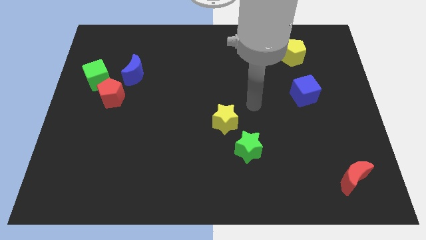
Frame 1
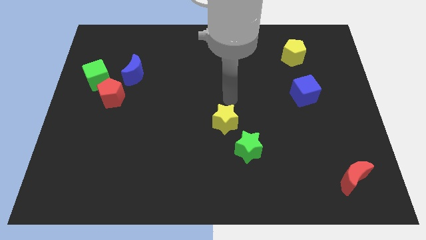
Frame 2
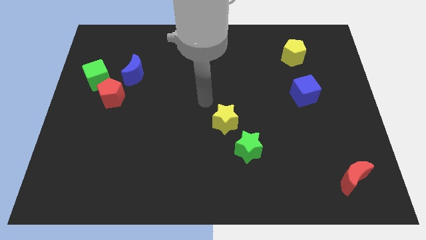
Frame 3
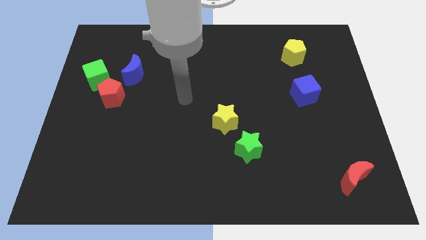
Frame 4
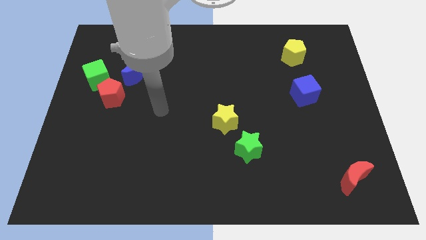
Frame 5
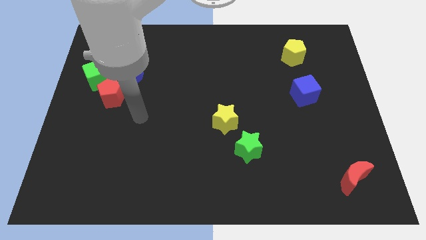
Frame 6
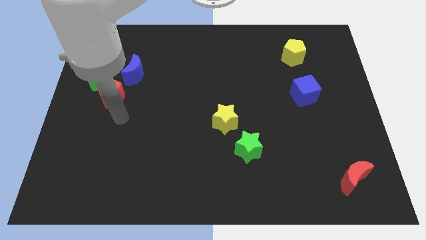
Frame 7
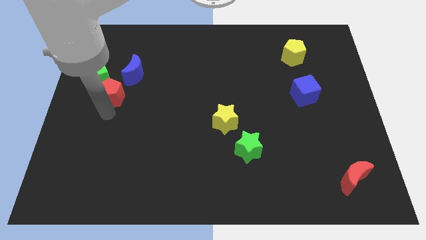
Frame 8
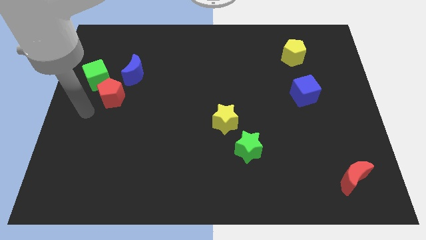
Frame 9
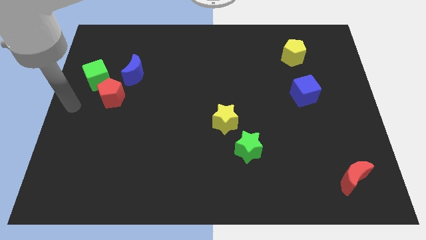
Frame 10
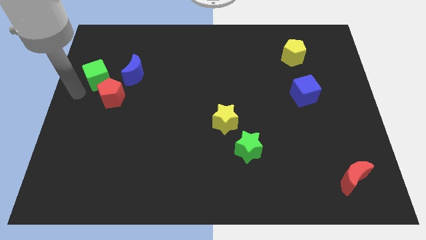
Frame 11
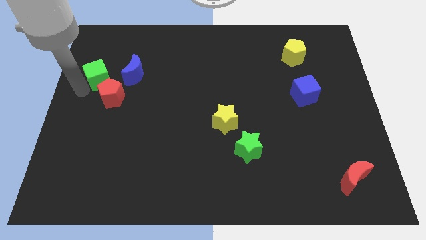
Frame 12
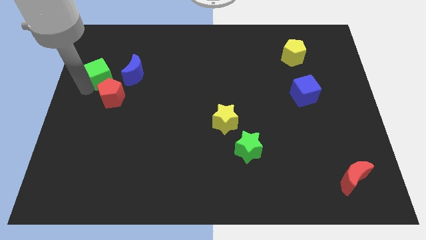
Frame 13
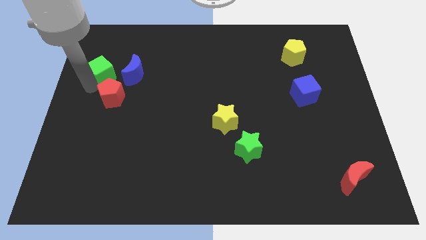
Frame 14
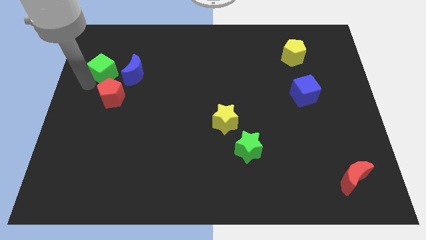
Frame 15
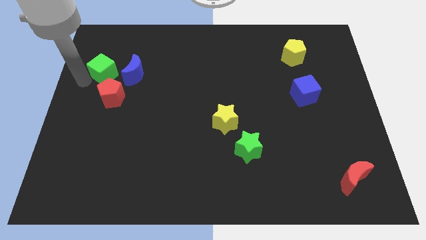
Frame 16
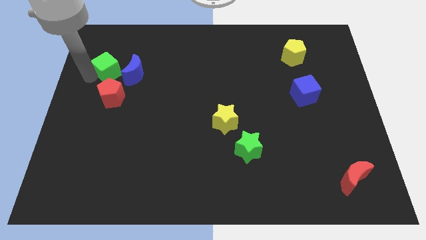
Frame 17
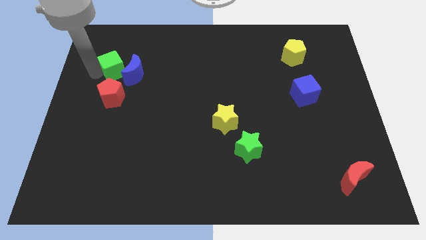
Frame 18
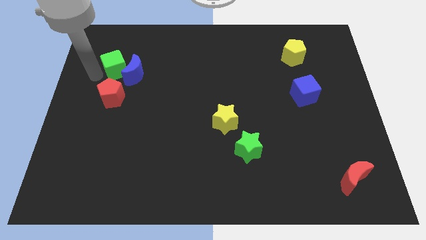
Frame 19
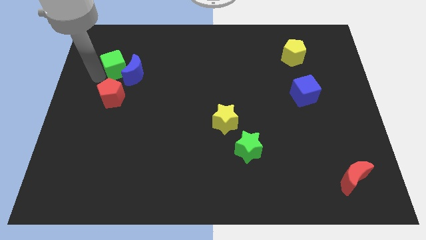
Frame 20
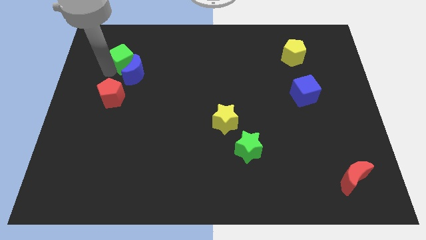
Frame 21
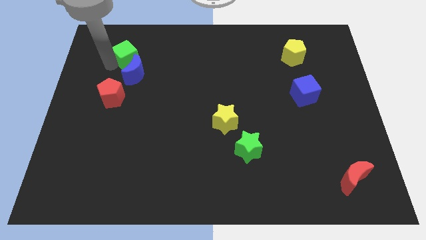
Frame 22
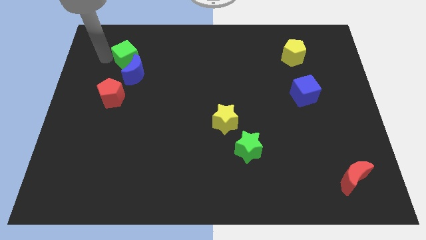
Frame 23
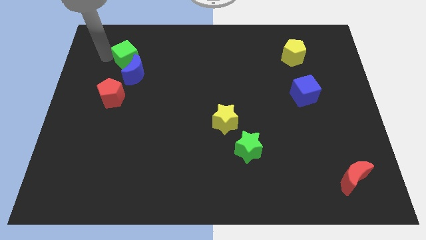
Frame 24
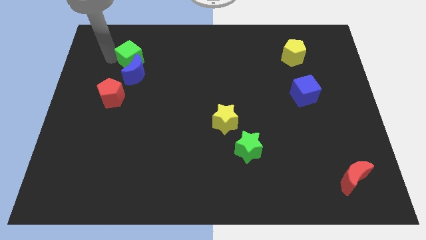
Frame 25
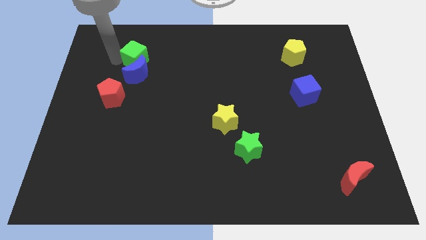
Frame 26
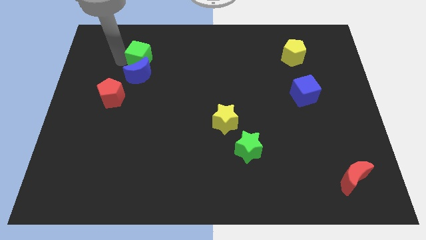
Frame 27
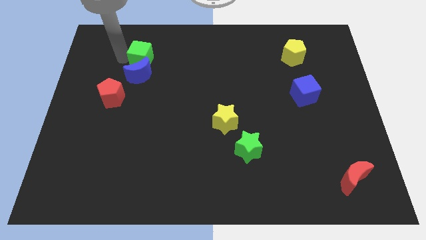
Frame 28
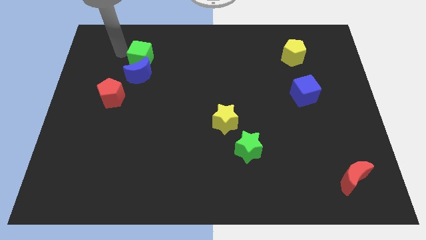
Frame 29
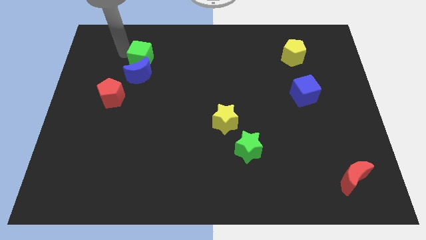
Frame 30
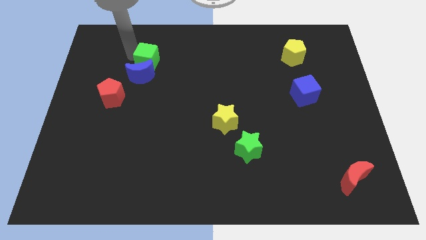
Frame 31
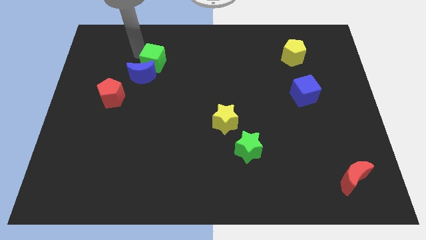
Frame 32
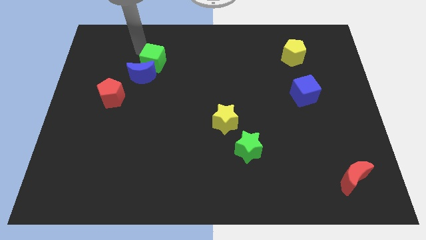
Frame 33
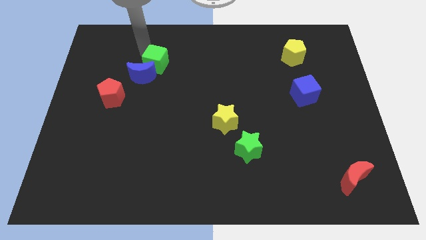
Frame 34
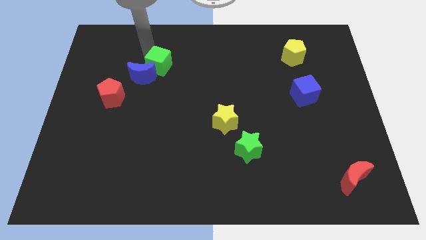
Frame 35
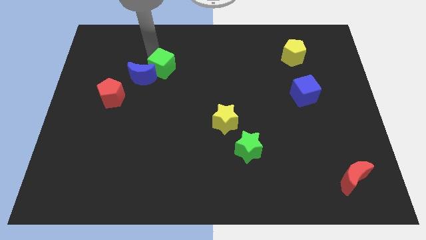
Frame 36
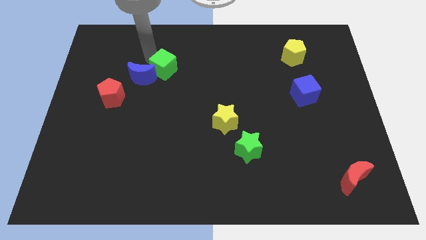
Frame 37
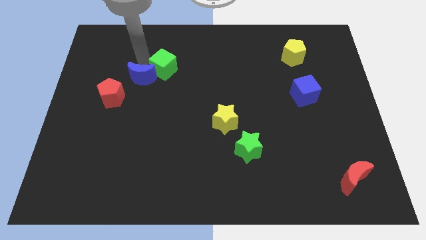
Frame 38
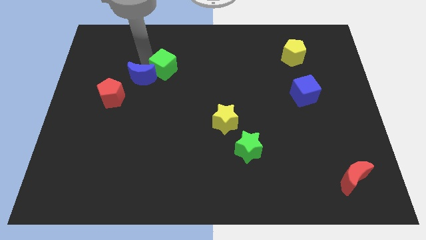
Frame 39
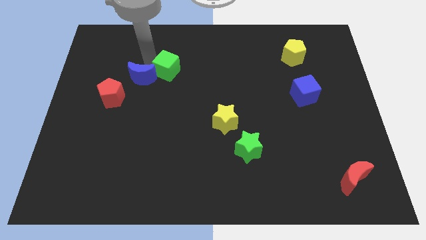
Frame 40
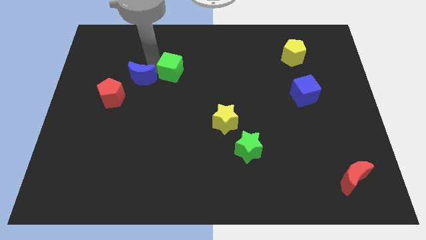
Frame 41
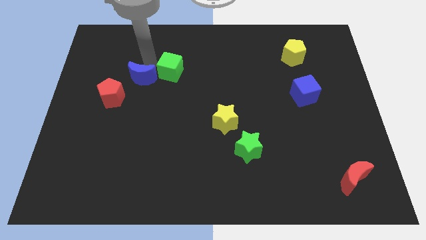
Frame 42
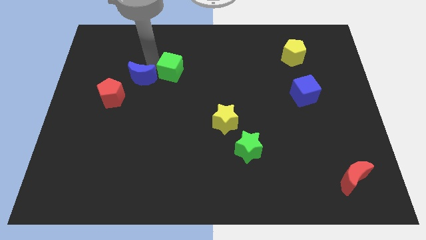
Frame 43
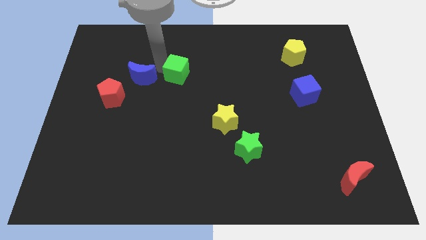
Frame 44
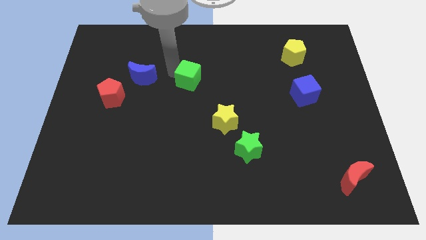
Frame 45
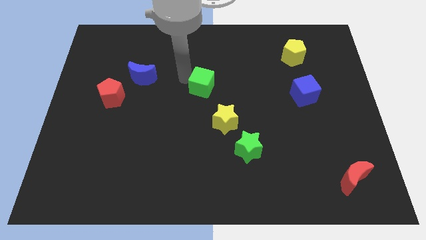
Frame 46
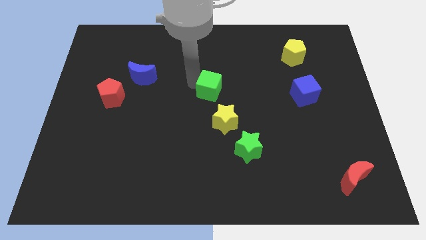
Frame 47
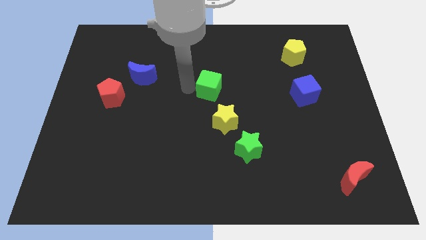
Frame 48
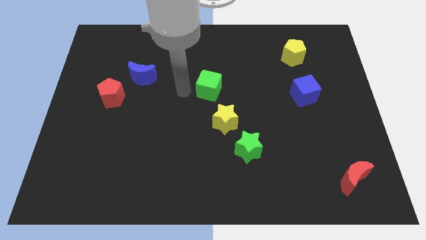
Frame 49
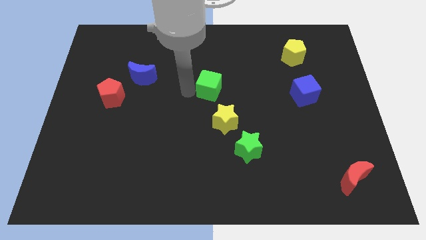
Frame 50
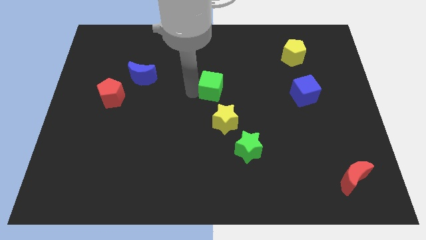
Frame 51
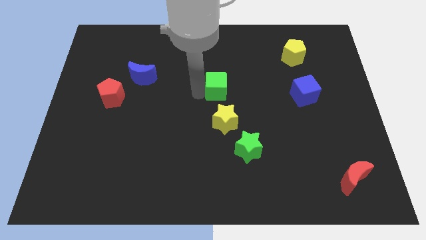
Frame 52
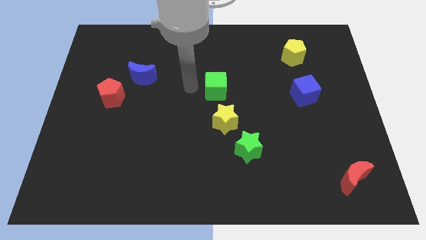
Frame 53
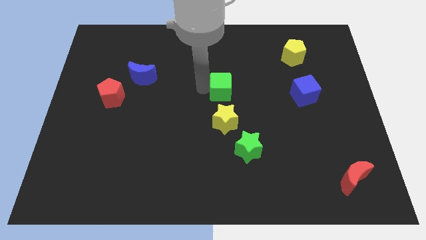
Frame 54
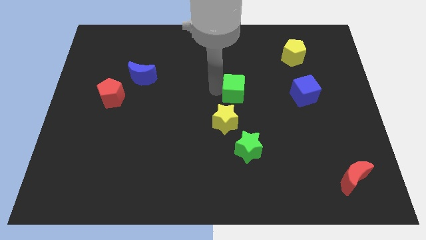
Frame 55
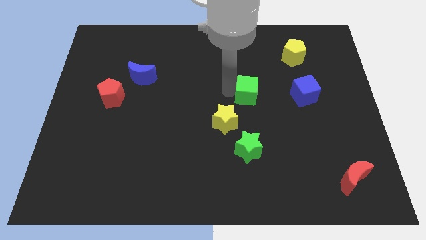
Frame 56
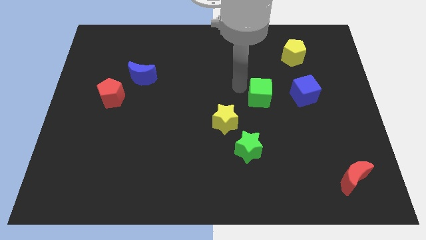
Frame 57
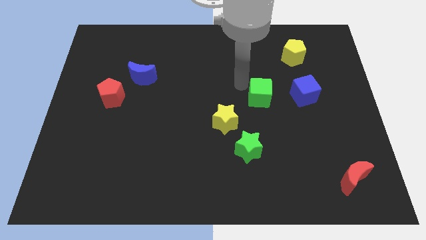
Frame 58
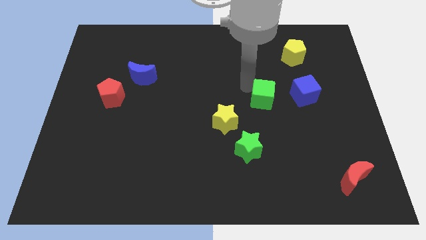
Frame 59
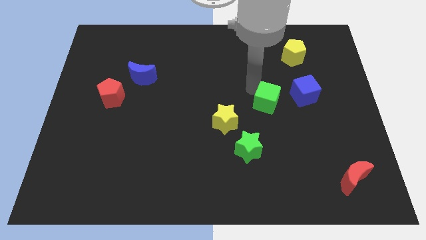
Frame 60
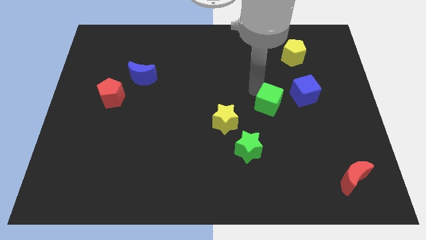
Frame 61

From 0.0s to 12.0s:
move the green cube diagonally down and to the left of the blue cube

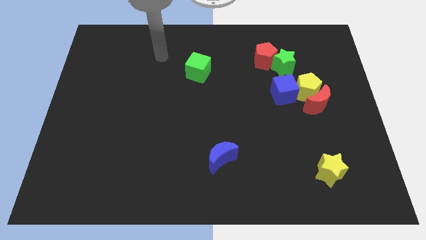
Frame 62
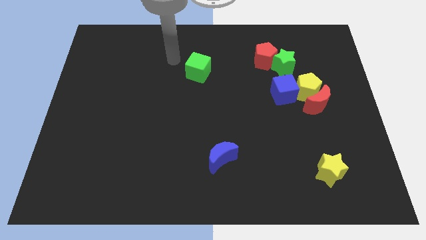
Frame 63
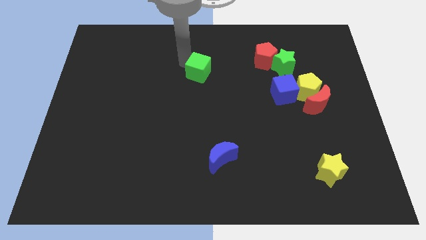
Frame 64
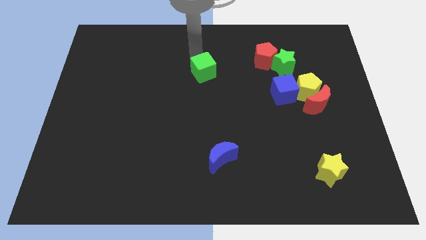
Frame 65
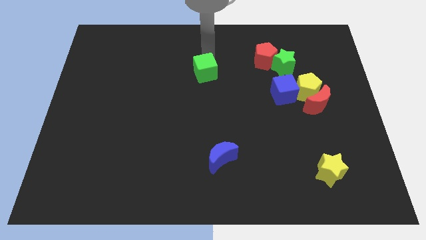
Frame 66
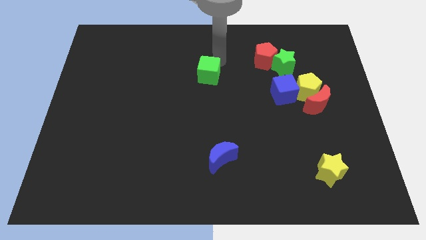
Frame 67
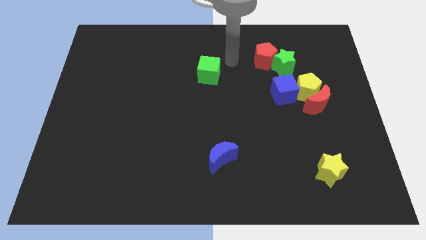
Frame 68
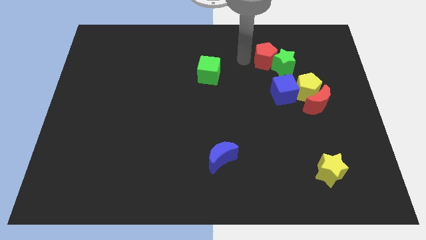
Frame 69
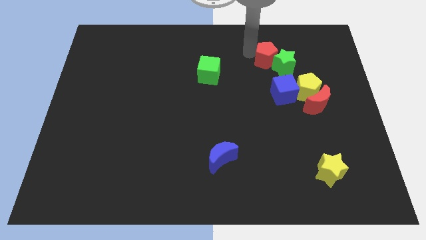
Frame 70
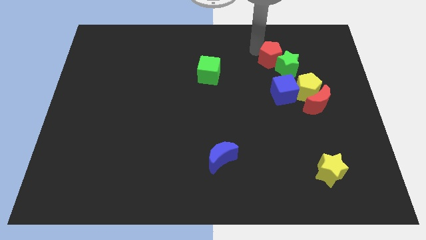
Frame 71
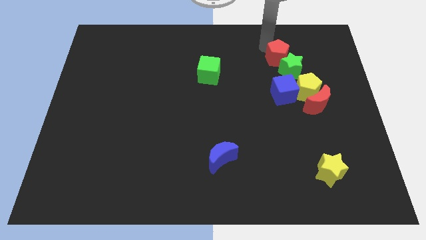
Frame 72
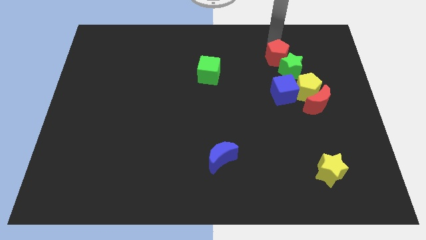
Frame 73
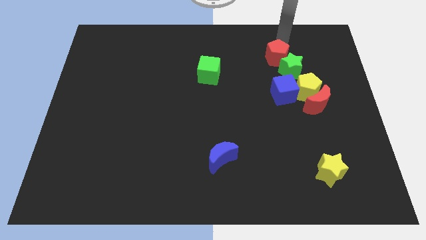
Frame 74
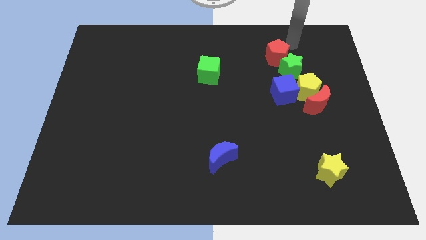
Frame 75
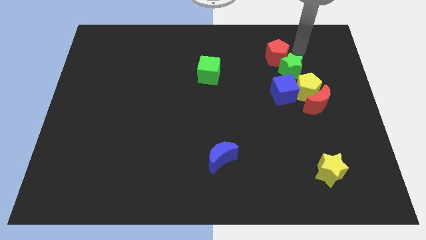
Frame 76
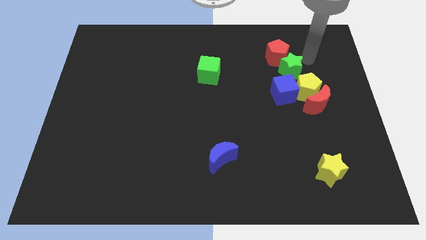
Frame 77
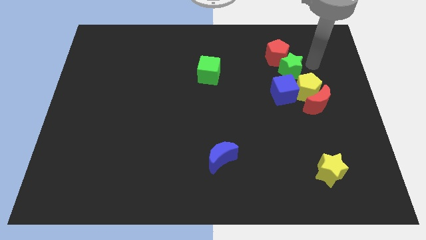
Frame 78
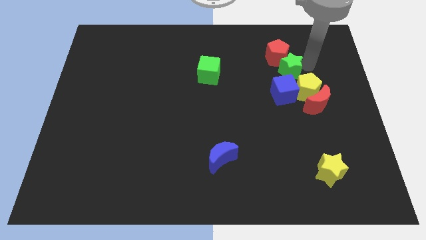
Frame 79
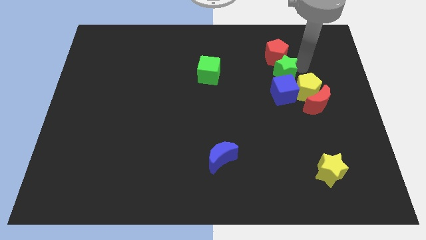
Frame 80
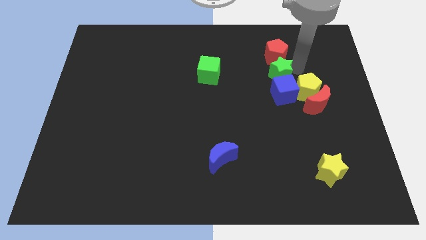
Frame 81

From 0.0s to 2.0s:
put the green star to the bottom left of the red pentagon
